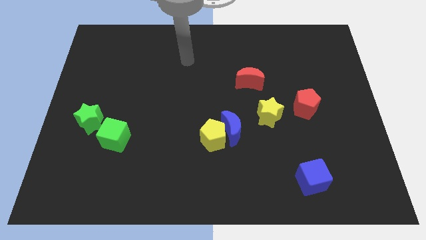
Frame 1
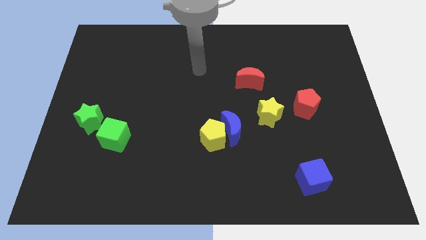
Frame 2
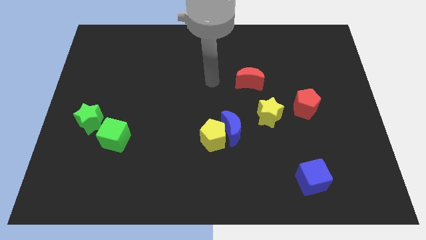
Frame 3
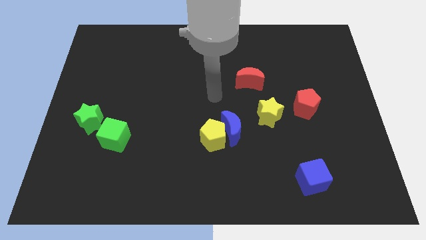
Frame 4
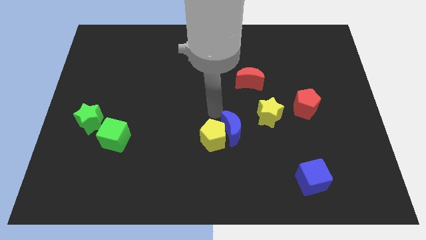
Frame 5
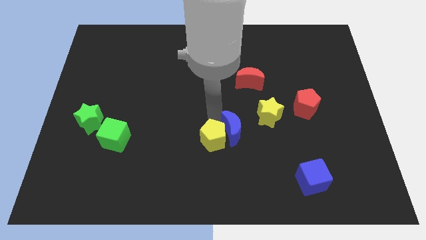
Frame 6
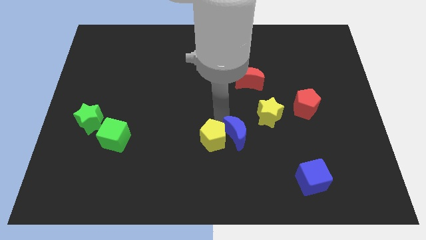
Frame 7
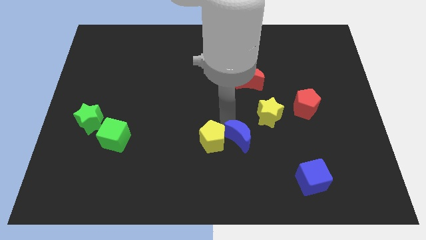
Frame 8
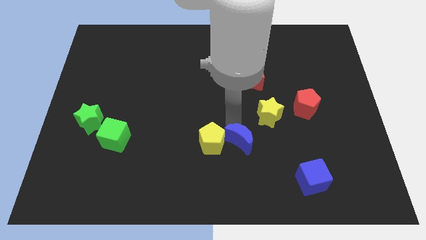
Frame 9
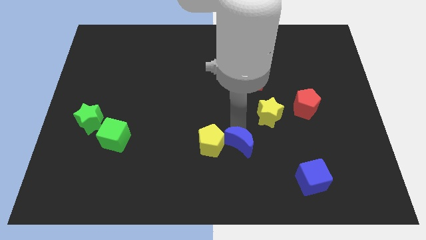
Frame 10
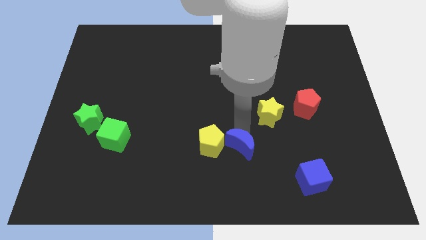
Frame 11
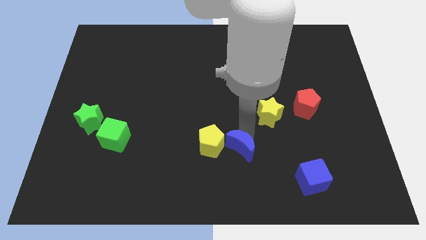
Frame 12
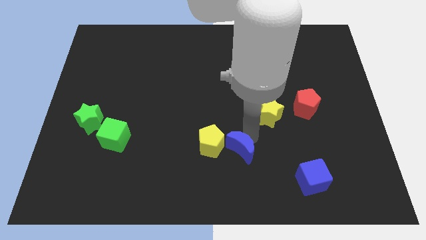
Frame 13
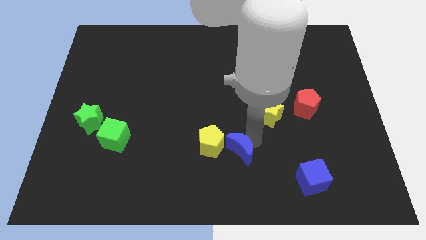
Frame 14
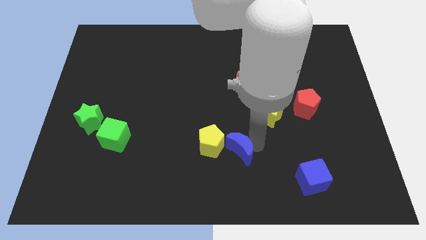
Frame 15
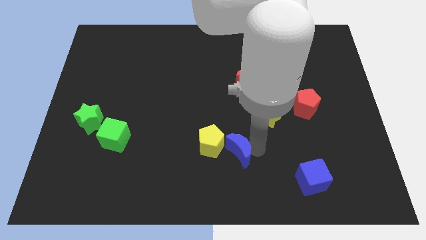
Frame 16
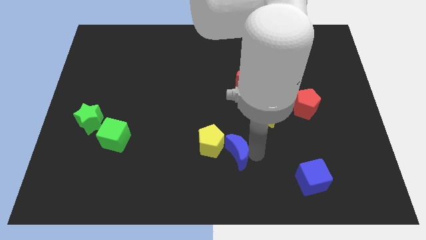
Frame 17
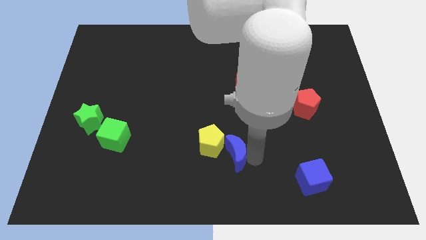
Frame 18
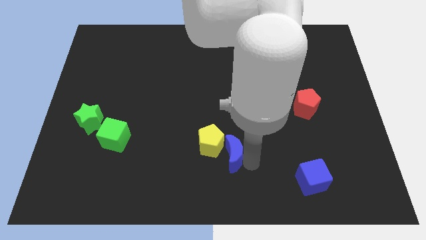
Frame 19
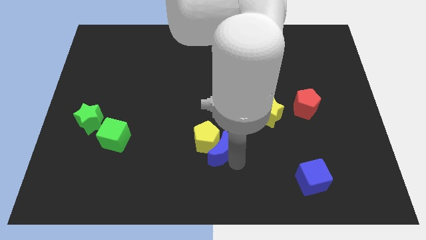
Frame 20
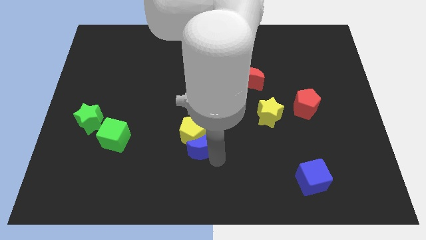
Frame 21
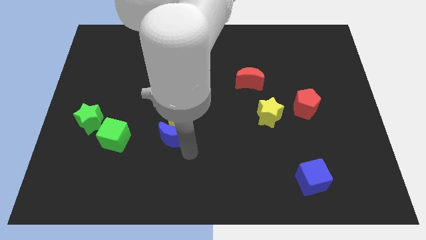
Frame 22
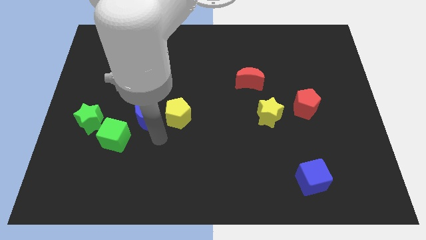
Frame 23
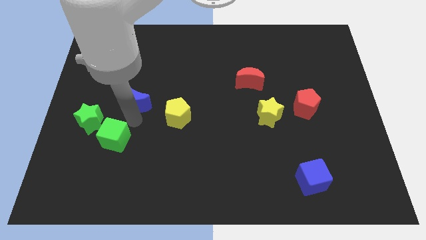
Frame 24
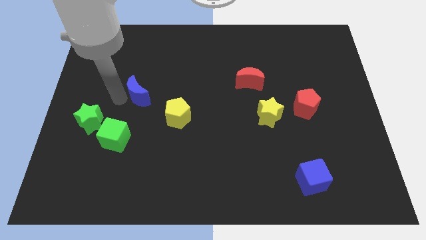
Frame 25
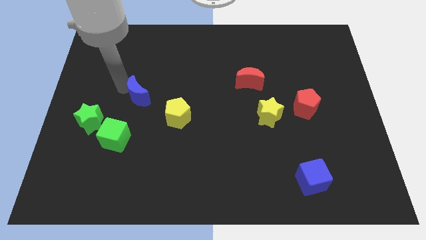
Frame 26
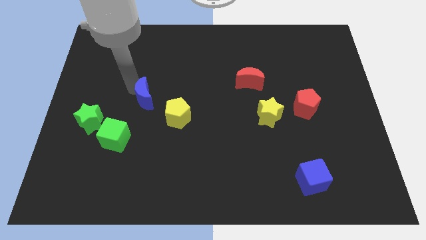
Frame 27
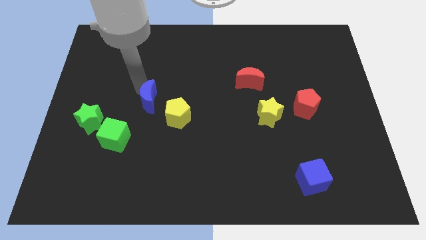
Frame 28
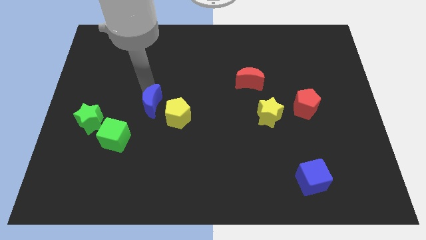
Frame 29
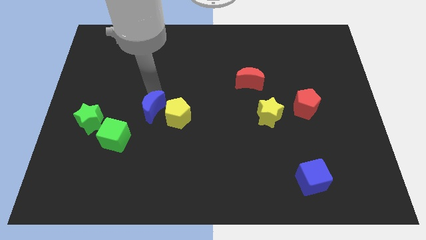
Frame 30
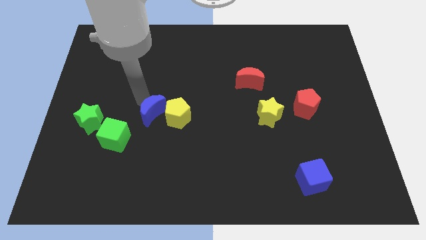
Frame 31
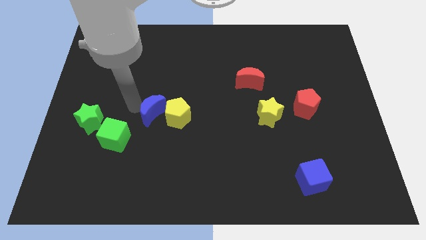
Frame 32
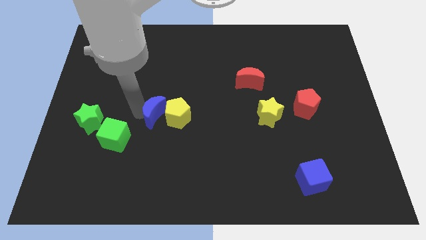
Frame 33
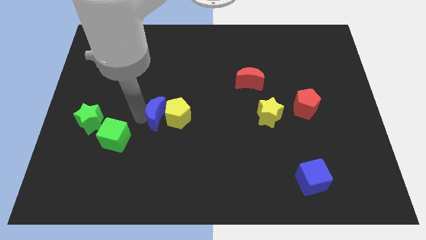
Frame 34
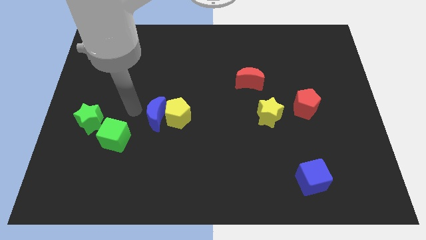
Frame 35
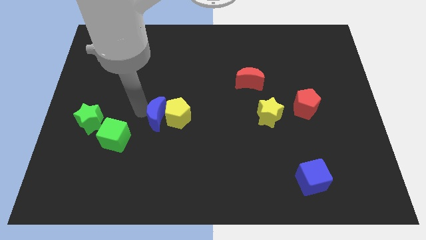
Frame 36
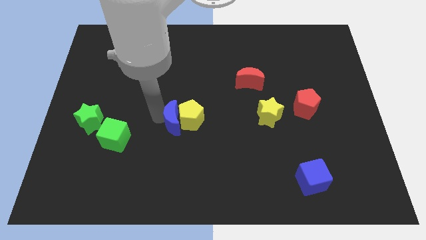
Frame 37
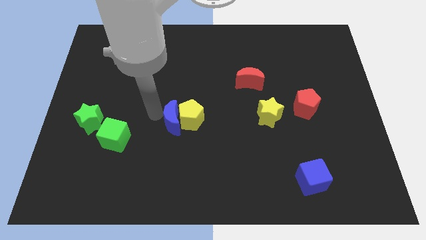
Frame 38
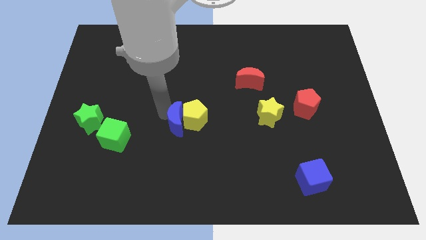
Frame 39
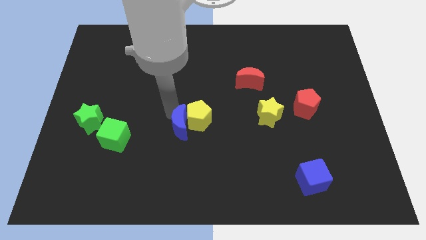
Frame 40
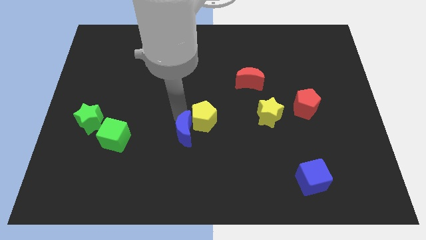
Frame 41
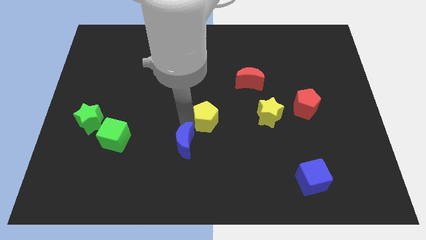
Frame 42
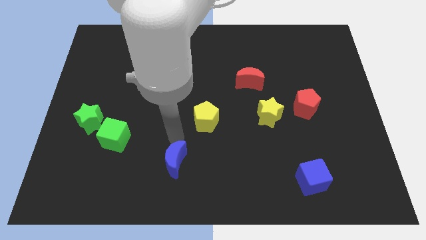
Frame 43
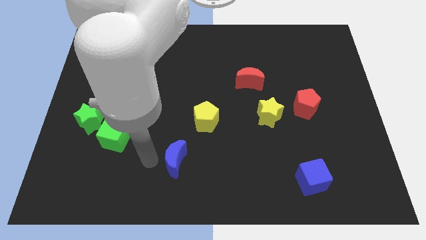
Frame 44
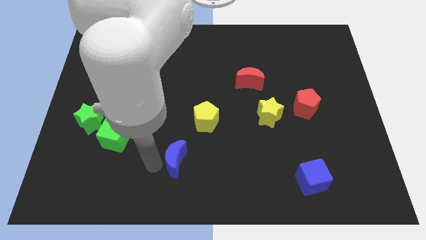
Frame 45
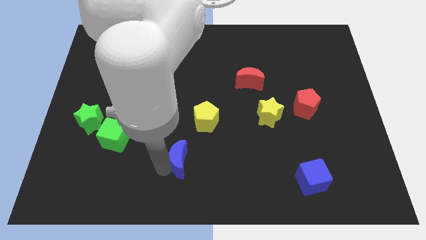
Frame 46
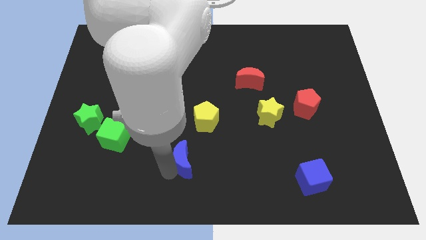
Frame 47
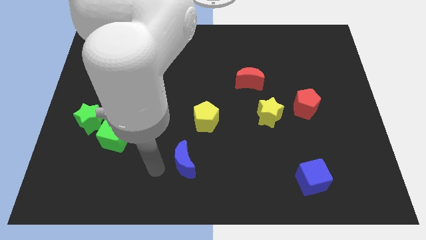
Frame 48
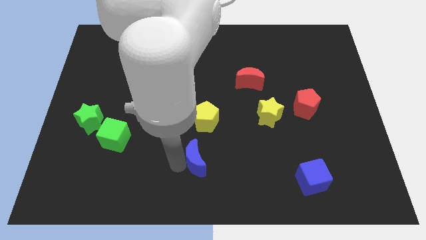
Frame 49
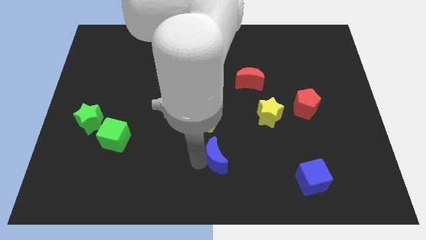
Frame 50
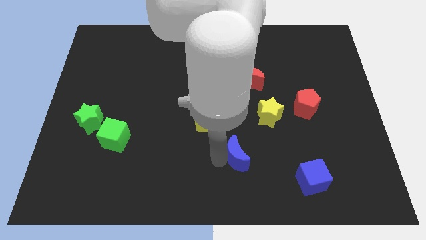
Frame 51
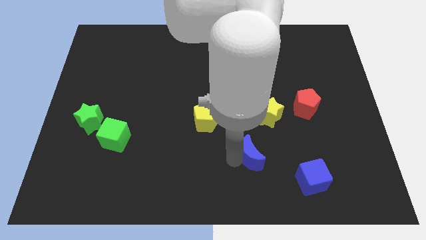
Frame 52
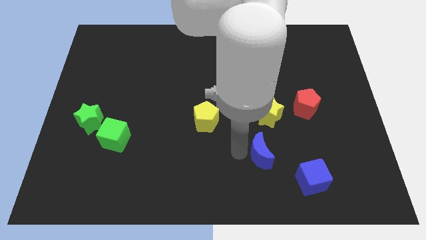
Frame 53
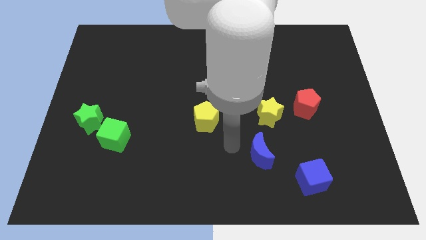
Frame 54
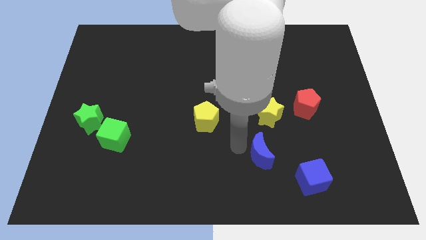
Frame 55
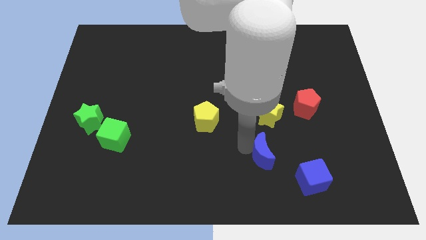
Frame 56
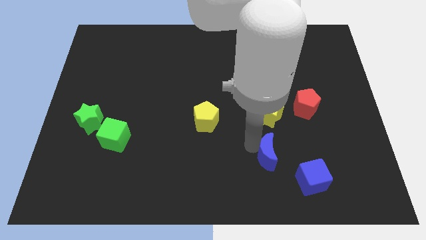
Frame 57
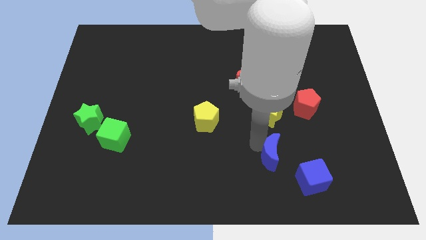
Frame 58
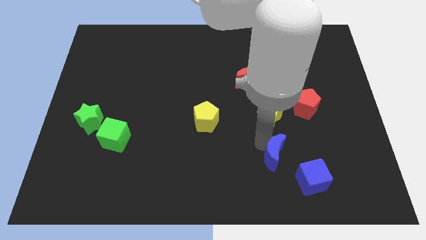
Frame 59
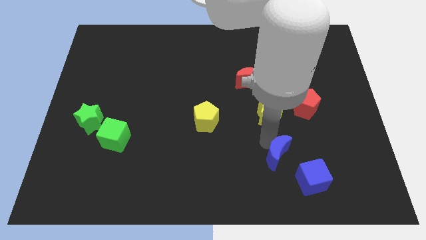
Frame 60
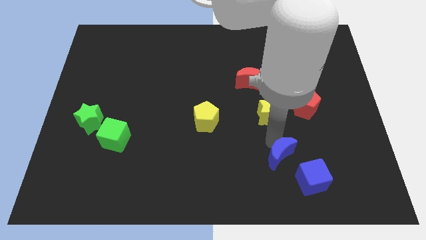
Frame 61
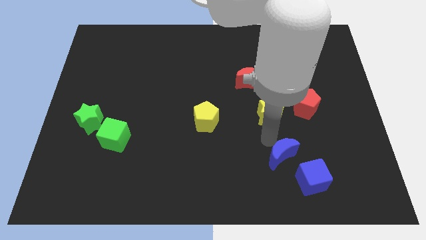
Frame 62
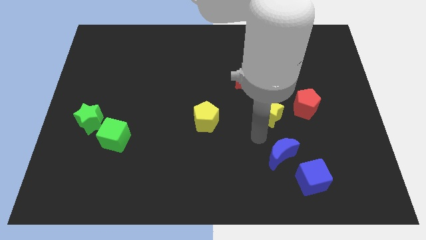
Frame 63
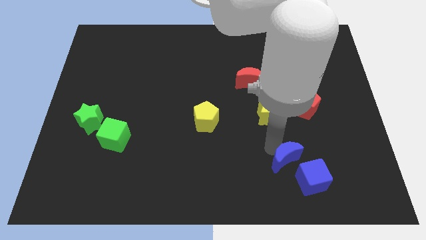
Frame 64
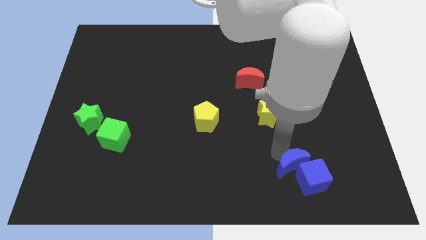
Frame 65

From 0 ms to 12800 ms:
put the blue moon next to the blue cube
